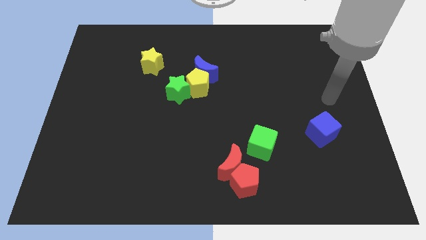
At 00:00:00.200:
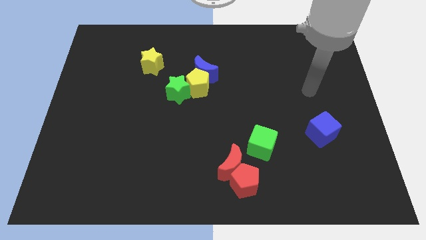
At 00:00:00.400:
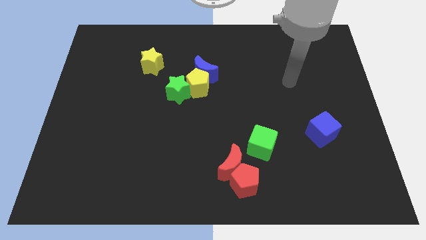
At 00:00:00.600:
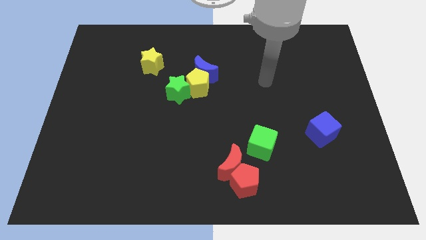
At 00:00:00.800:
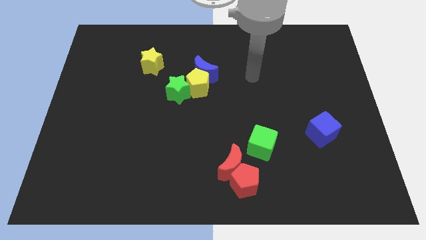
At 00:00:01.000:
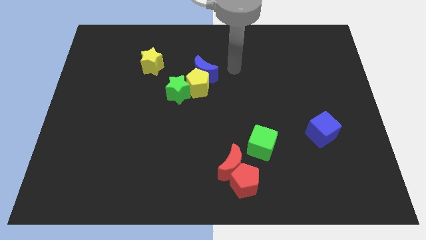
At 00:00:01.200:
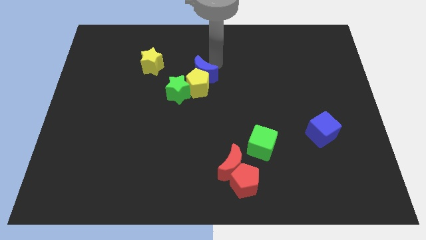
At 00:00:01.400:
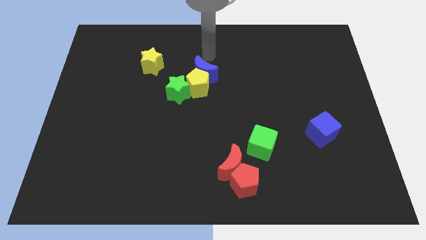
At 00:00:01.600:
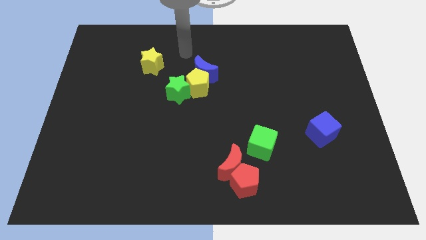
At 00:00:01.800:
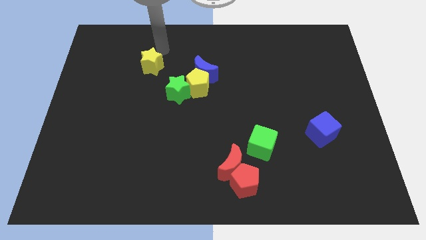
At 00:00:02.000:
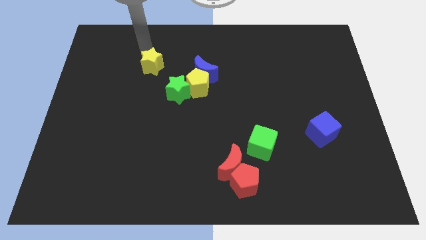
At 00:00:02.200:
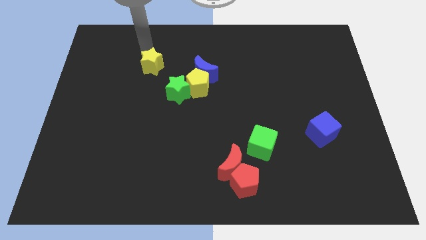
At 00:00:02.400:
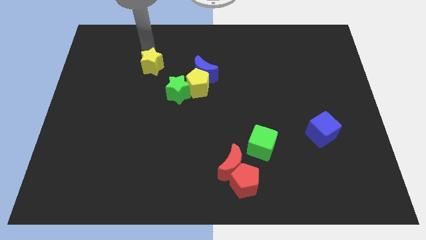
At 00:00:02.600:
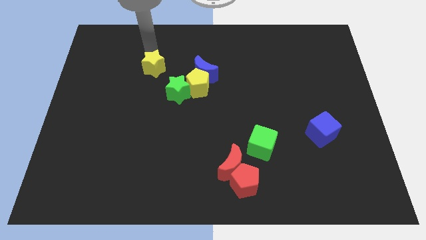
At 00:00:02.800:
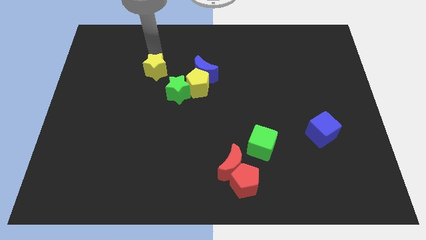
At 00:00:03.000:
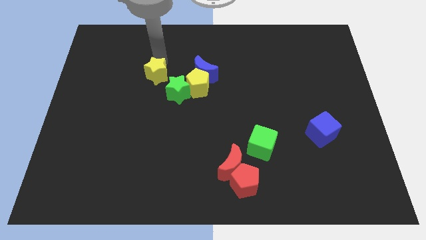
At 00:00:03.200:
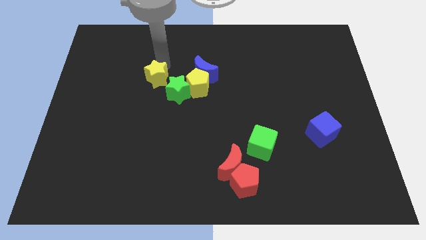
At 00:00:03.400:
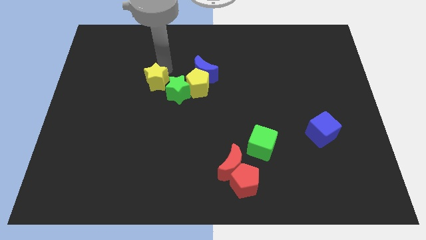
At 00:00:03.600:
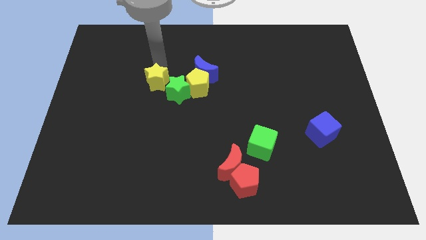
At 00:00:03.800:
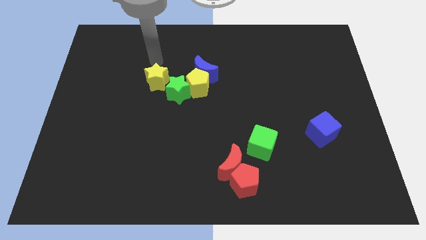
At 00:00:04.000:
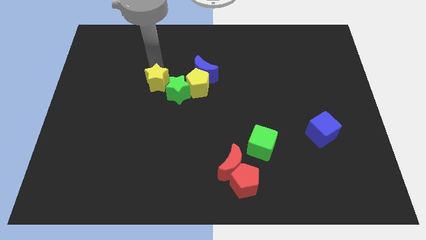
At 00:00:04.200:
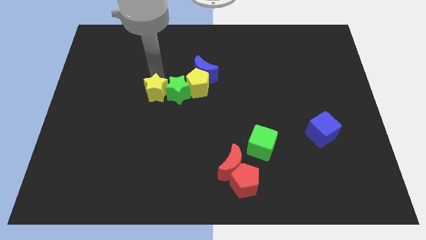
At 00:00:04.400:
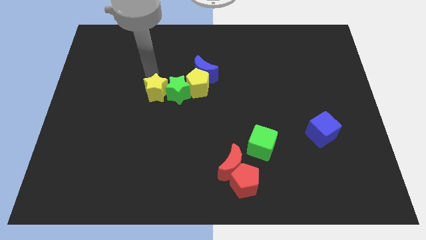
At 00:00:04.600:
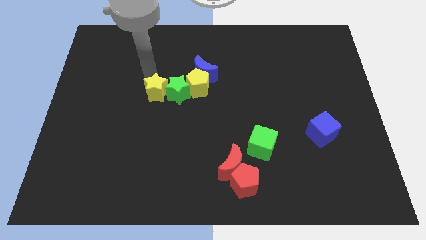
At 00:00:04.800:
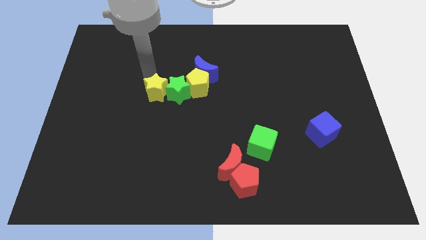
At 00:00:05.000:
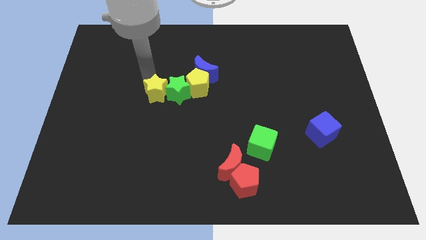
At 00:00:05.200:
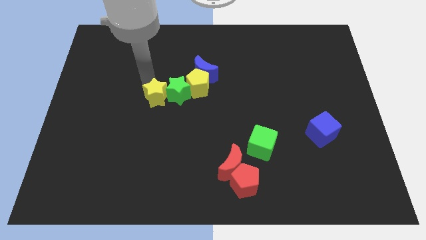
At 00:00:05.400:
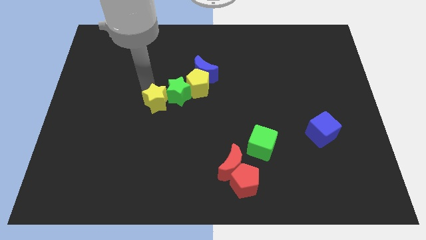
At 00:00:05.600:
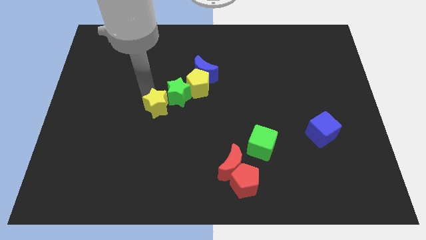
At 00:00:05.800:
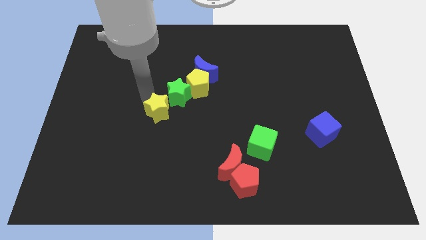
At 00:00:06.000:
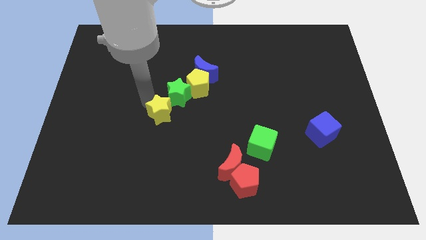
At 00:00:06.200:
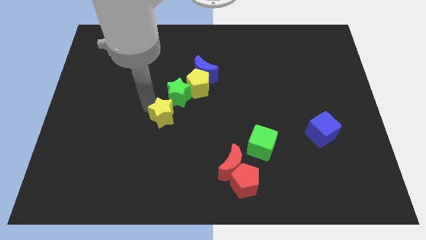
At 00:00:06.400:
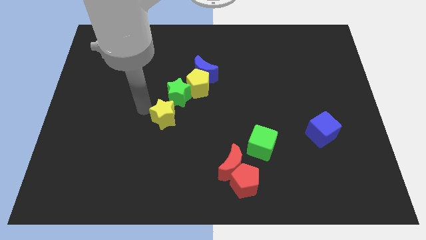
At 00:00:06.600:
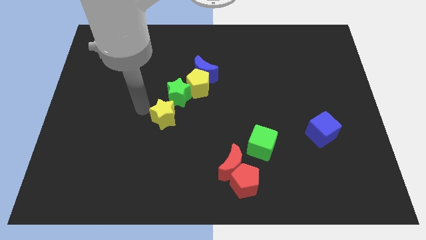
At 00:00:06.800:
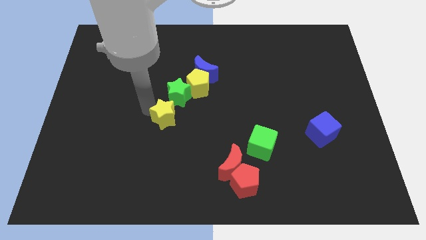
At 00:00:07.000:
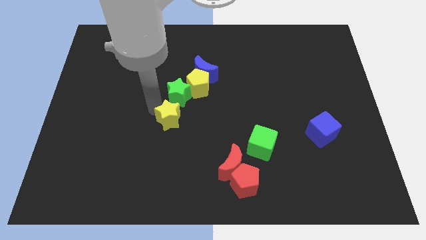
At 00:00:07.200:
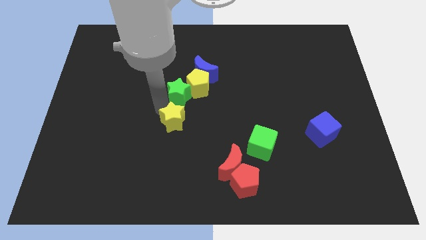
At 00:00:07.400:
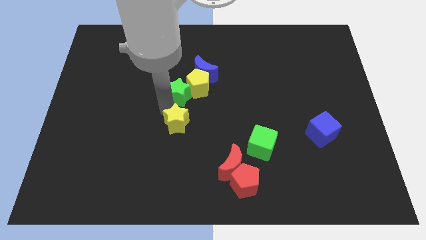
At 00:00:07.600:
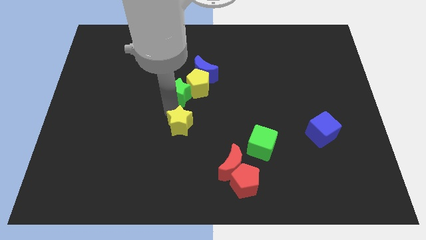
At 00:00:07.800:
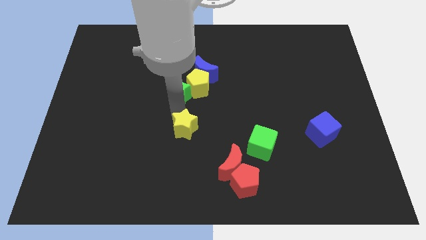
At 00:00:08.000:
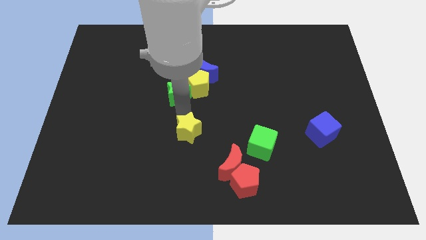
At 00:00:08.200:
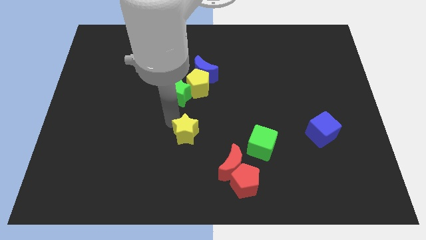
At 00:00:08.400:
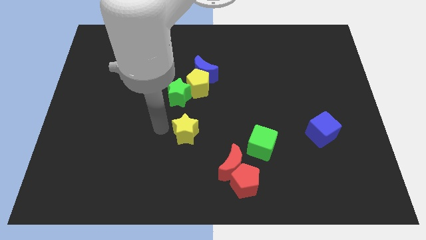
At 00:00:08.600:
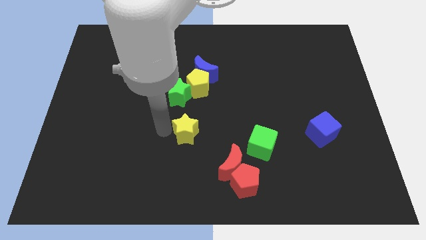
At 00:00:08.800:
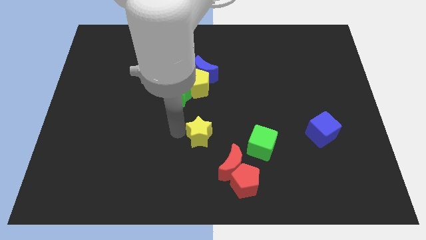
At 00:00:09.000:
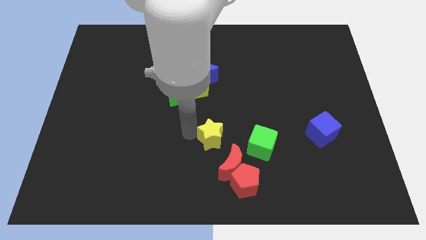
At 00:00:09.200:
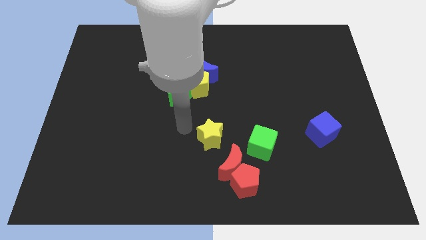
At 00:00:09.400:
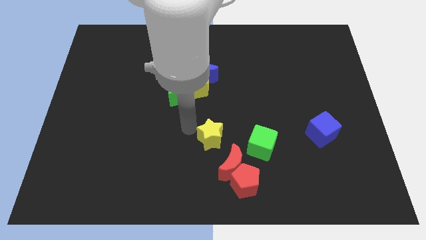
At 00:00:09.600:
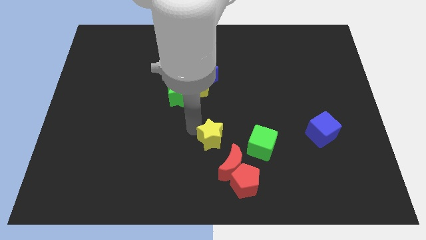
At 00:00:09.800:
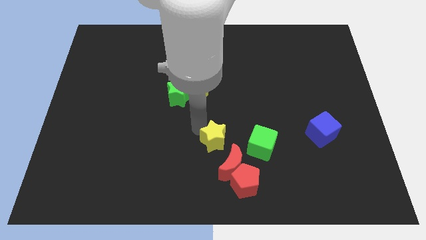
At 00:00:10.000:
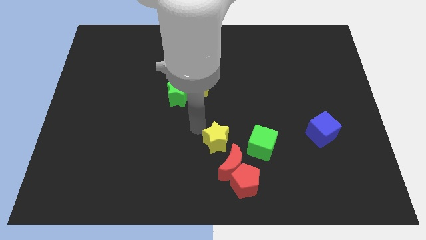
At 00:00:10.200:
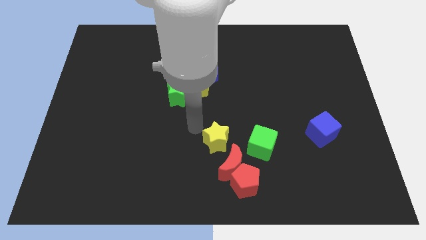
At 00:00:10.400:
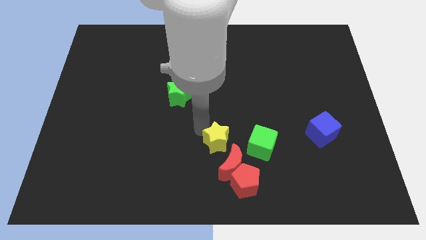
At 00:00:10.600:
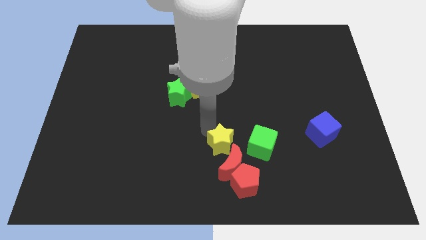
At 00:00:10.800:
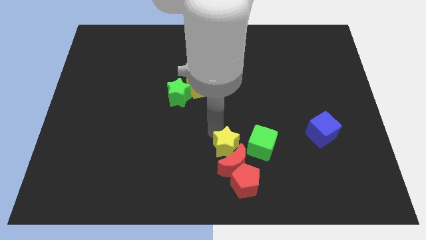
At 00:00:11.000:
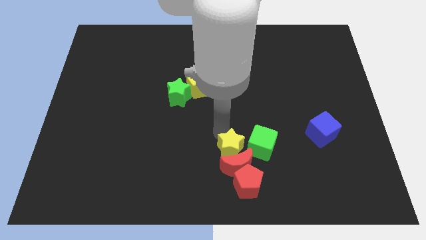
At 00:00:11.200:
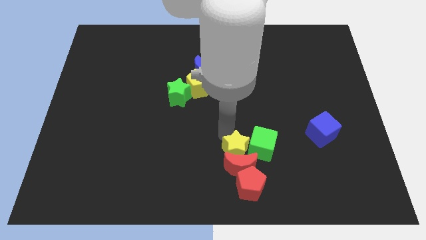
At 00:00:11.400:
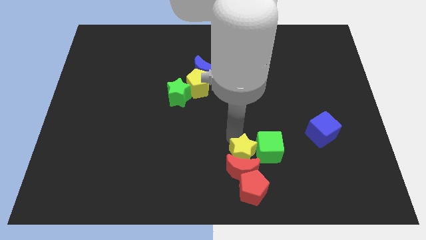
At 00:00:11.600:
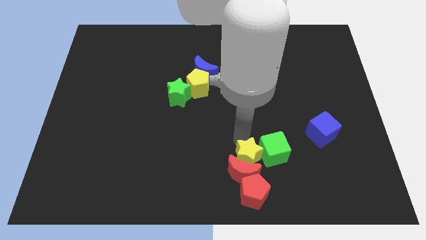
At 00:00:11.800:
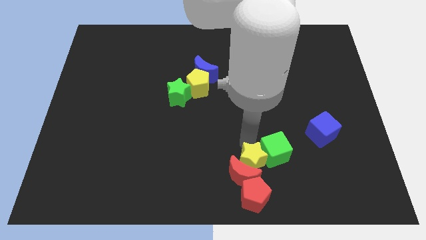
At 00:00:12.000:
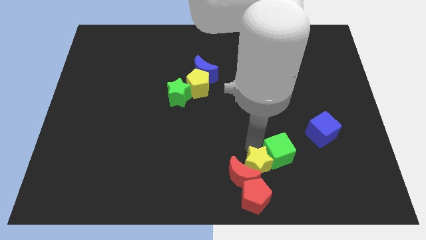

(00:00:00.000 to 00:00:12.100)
push the yellow star to the top right of the red pentagon
